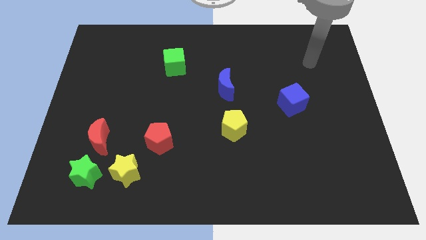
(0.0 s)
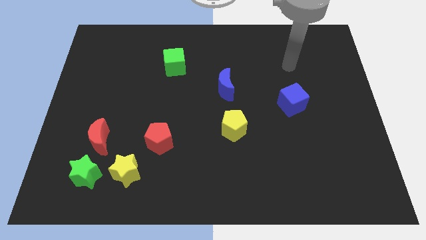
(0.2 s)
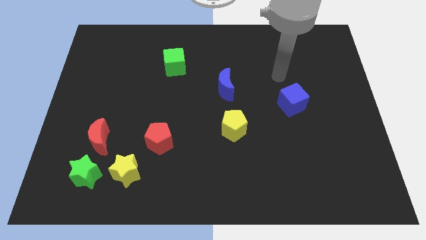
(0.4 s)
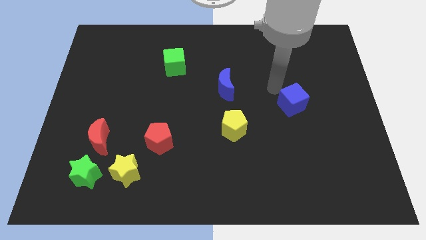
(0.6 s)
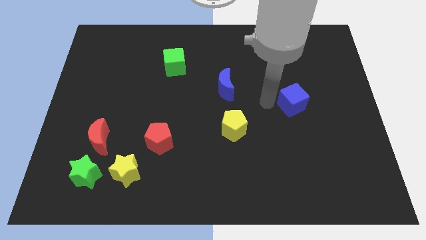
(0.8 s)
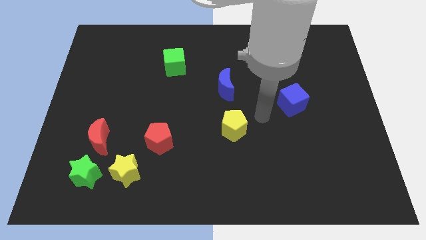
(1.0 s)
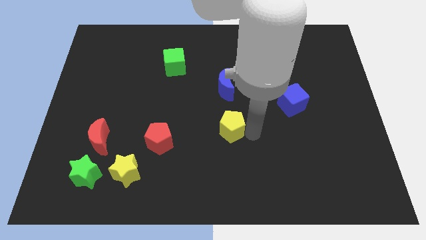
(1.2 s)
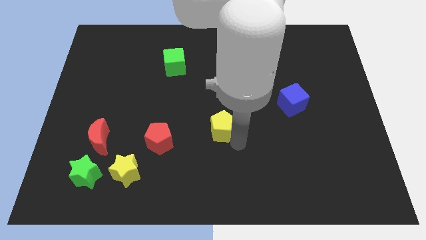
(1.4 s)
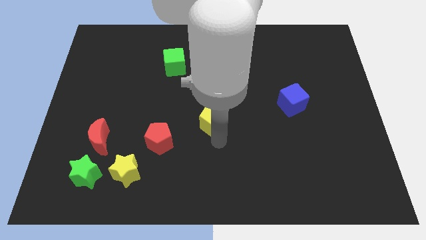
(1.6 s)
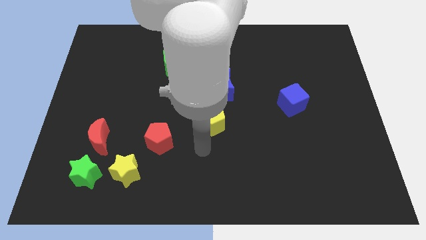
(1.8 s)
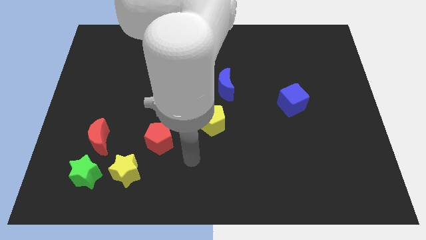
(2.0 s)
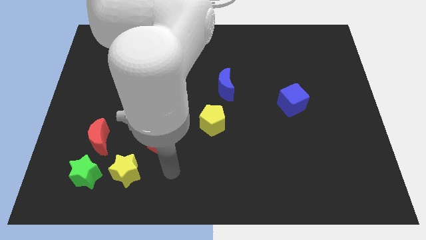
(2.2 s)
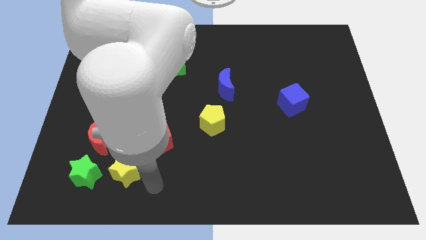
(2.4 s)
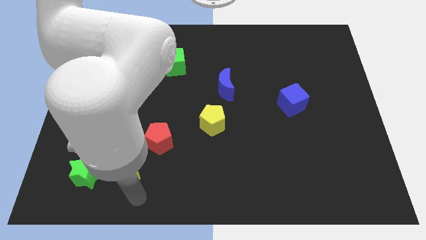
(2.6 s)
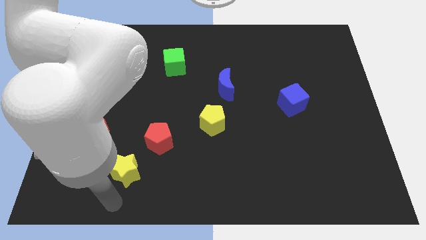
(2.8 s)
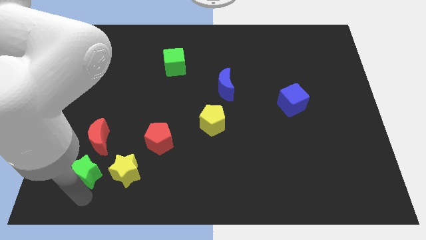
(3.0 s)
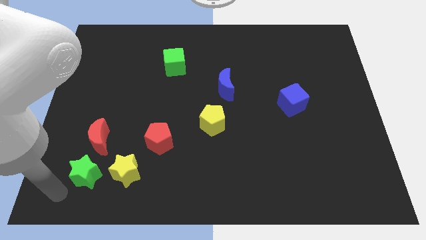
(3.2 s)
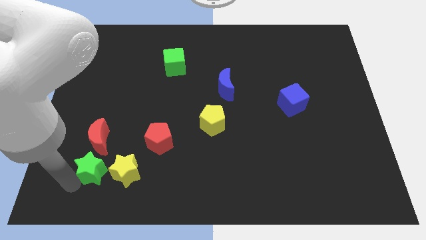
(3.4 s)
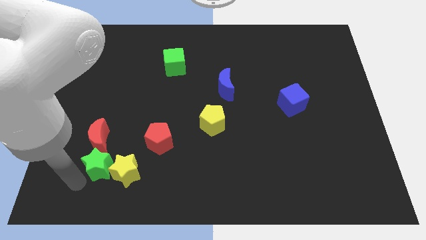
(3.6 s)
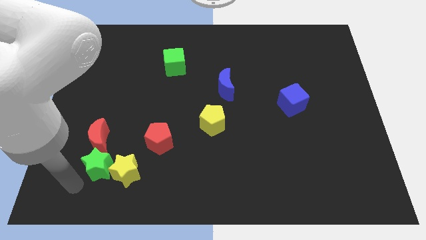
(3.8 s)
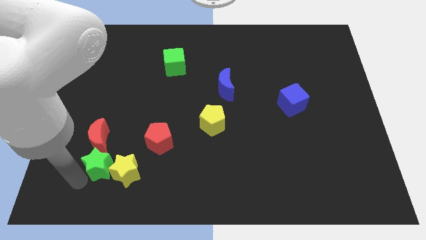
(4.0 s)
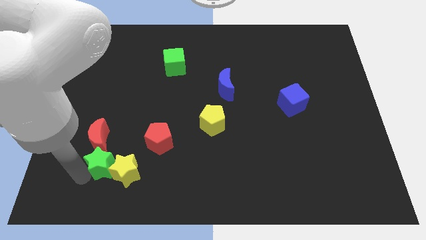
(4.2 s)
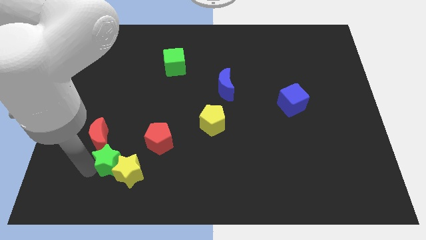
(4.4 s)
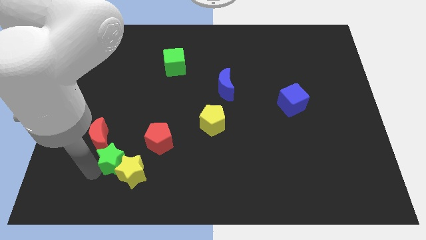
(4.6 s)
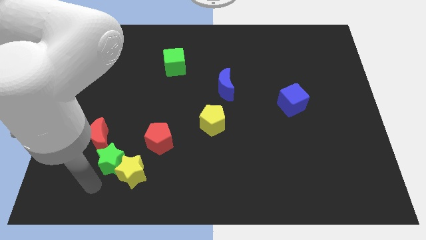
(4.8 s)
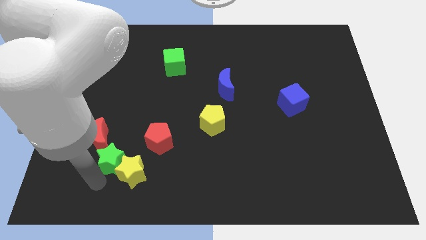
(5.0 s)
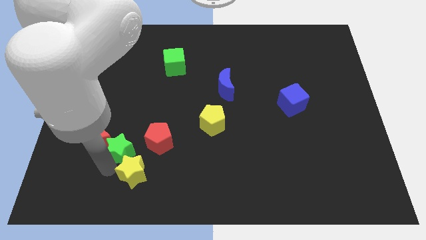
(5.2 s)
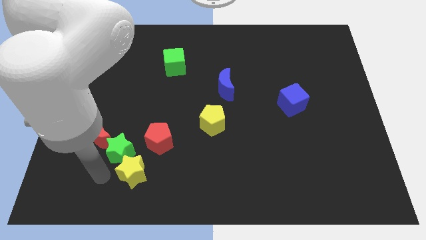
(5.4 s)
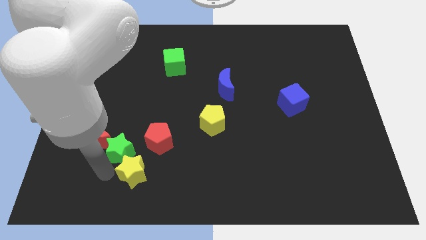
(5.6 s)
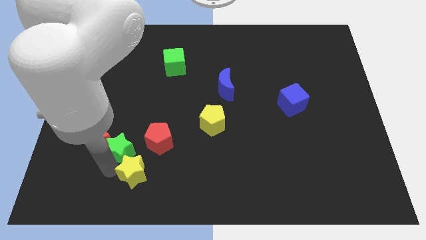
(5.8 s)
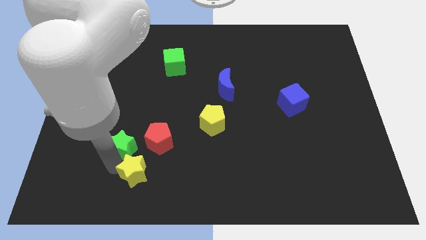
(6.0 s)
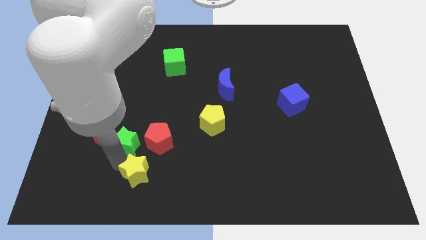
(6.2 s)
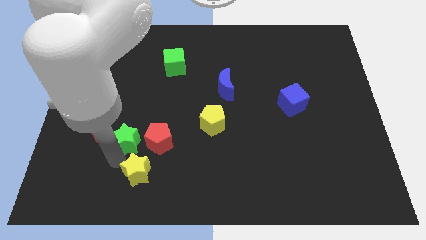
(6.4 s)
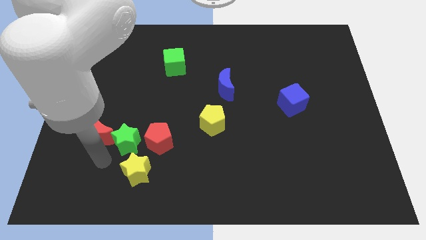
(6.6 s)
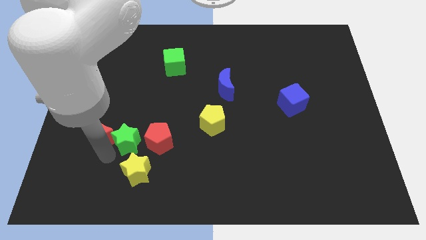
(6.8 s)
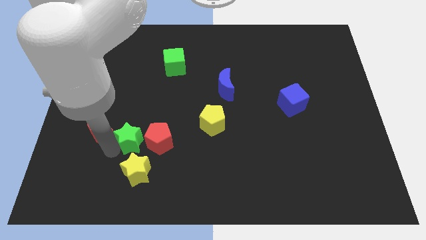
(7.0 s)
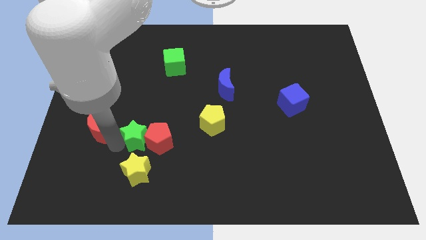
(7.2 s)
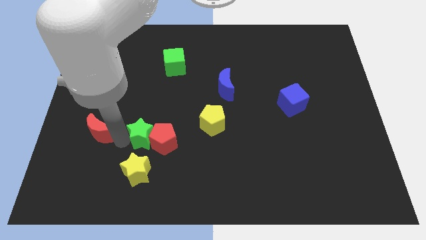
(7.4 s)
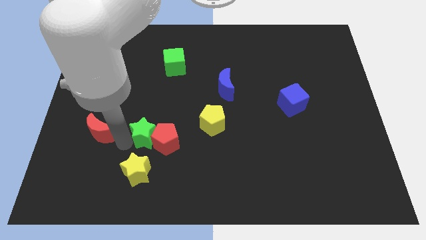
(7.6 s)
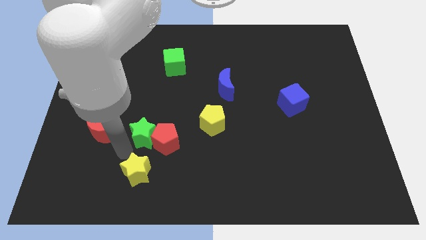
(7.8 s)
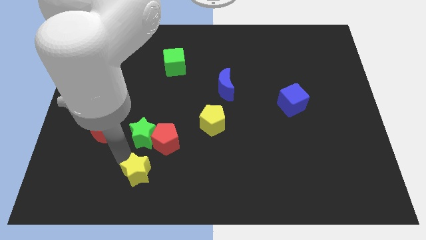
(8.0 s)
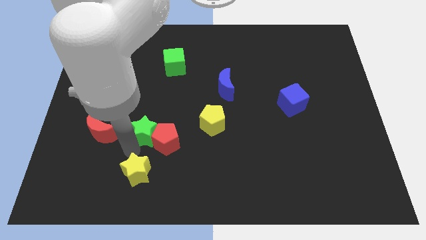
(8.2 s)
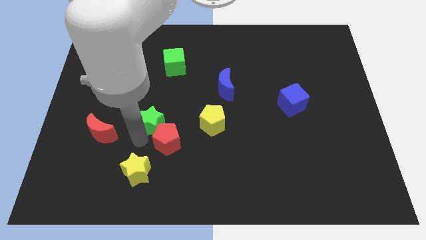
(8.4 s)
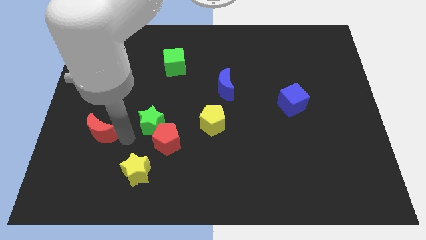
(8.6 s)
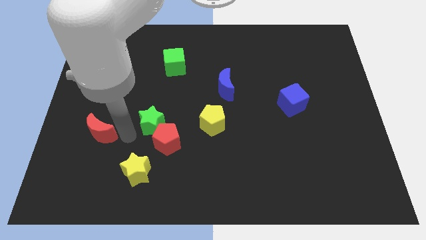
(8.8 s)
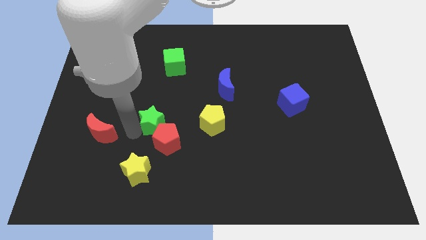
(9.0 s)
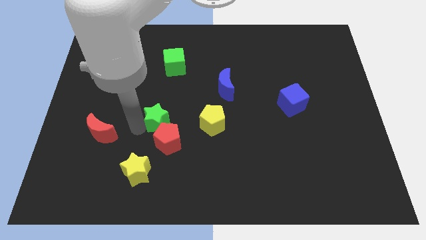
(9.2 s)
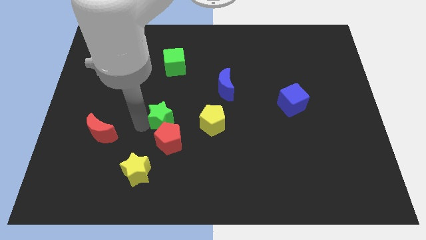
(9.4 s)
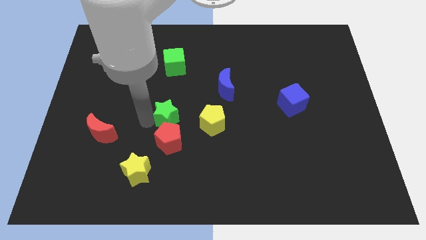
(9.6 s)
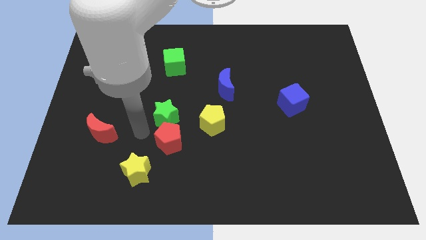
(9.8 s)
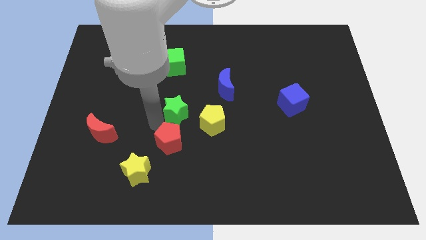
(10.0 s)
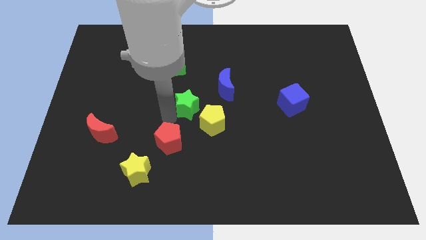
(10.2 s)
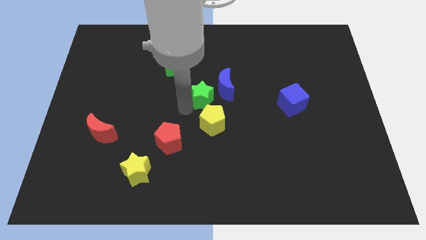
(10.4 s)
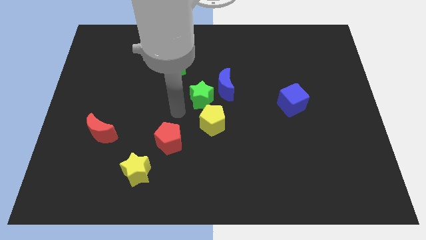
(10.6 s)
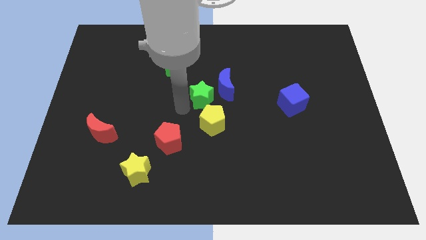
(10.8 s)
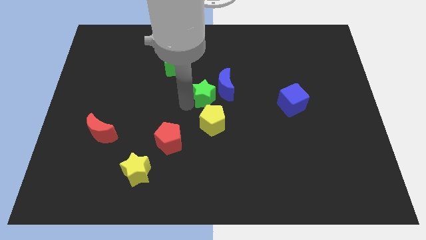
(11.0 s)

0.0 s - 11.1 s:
push the green star next to the blue moon

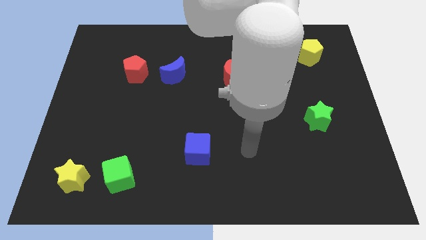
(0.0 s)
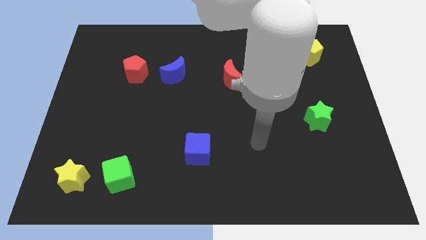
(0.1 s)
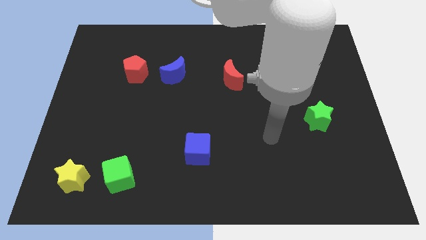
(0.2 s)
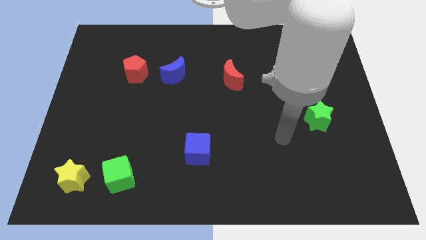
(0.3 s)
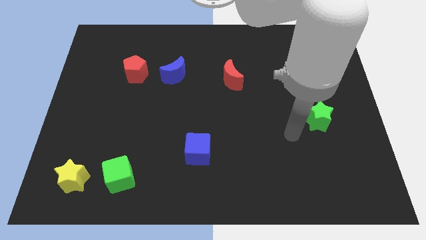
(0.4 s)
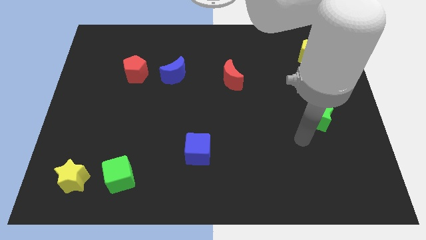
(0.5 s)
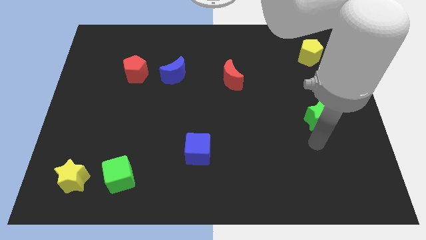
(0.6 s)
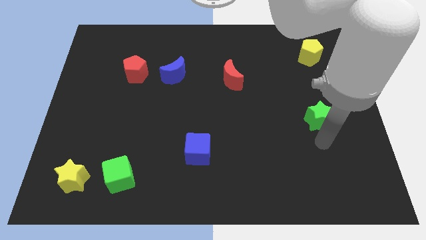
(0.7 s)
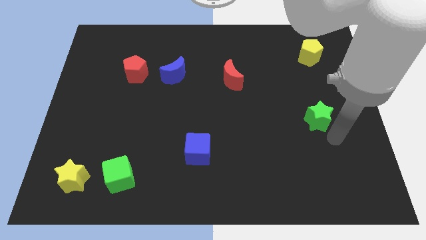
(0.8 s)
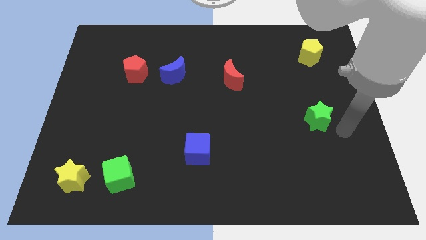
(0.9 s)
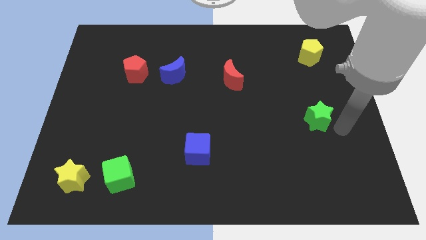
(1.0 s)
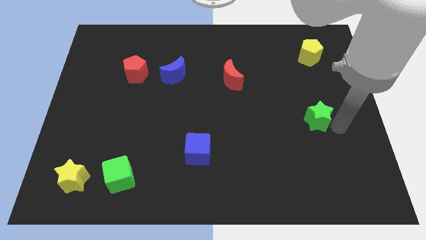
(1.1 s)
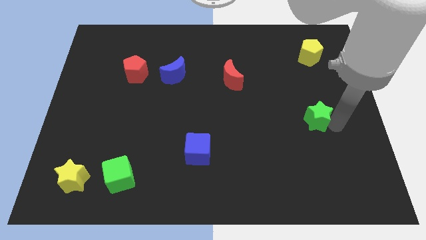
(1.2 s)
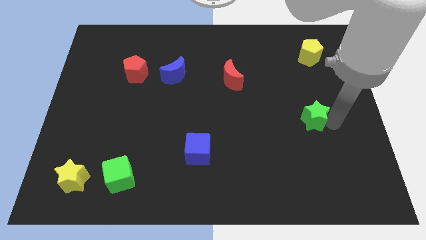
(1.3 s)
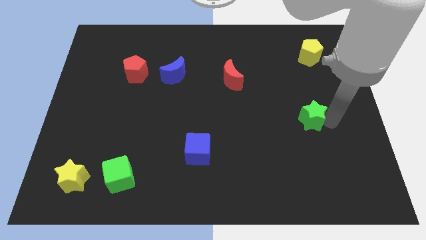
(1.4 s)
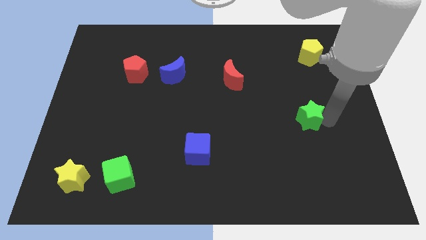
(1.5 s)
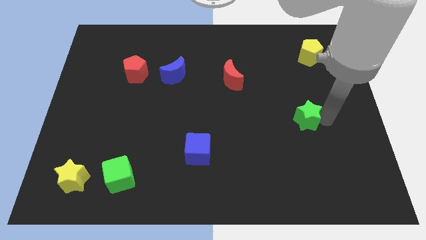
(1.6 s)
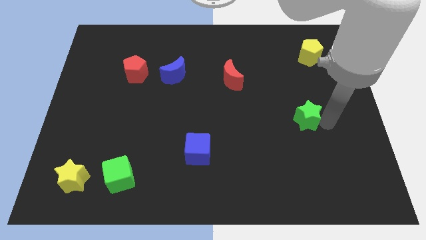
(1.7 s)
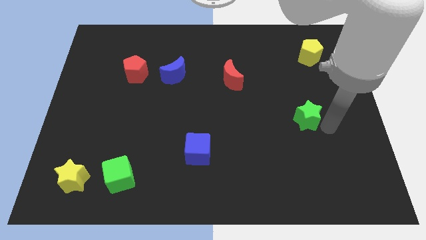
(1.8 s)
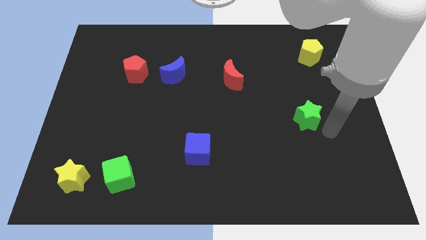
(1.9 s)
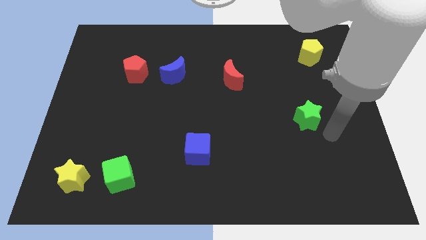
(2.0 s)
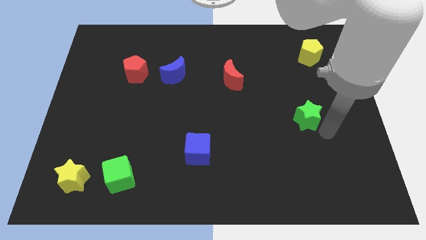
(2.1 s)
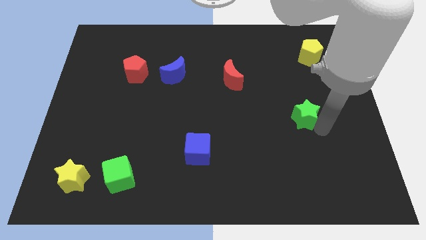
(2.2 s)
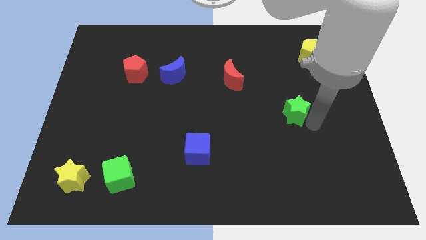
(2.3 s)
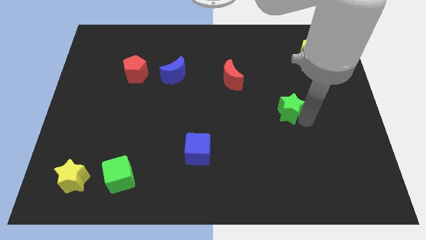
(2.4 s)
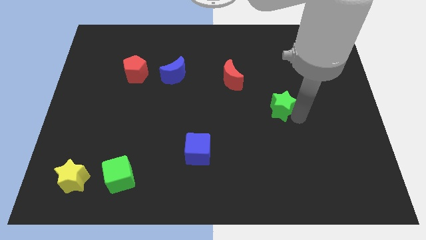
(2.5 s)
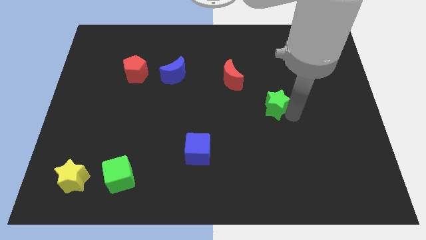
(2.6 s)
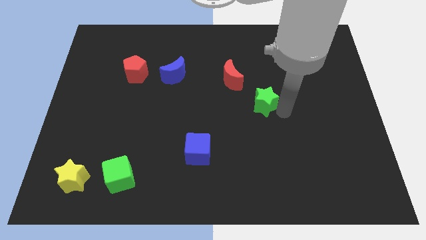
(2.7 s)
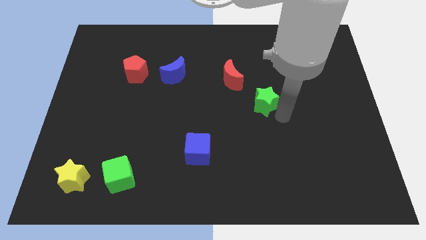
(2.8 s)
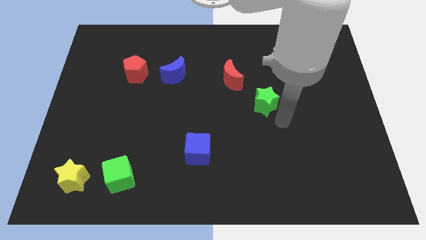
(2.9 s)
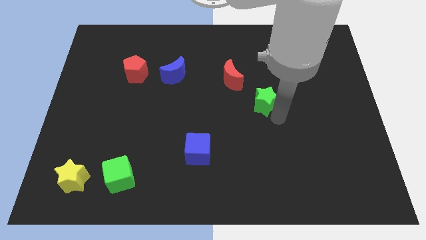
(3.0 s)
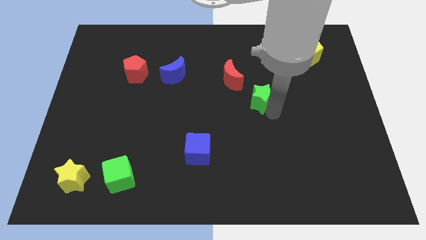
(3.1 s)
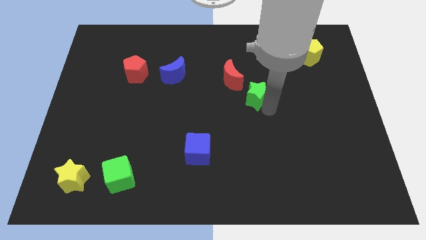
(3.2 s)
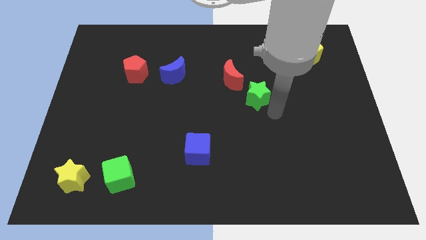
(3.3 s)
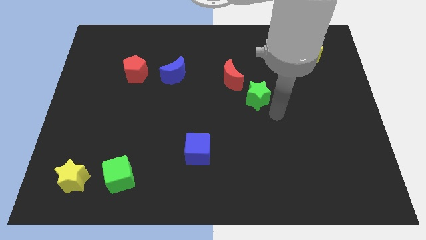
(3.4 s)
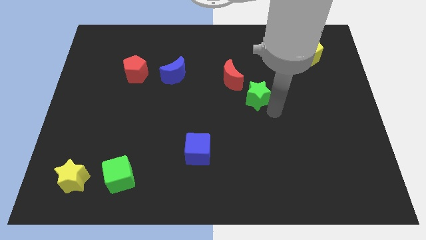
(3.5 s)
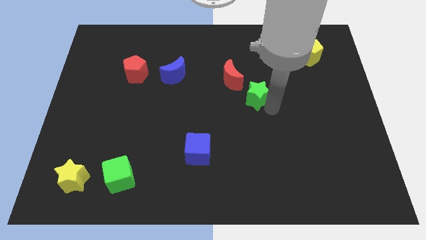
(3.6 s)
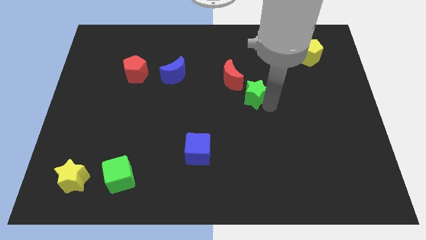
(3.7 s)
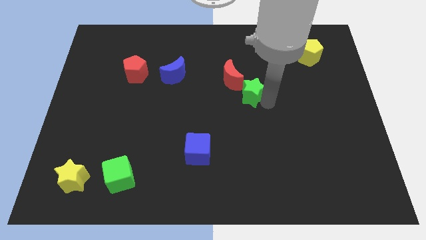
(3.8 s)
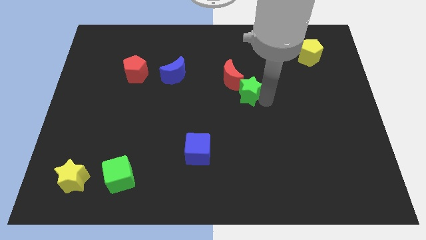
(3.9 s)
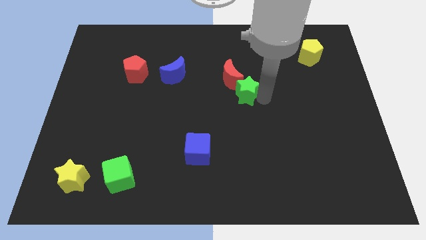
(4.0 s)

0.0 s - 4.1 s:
slide the green star to the red moon
